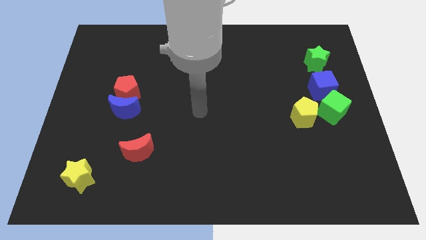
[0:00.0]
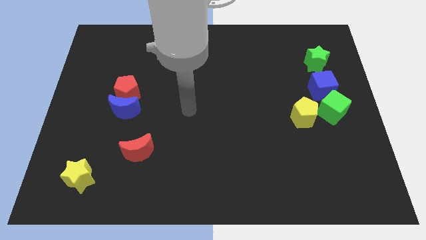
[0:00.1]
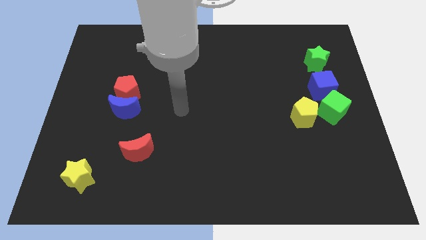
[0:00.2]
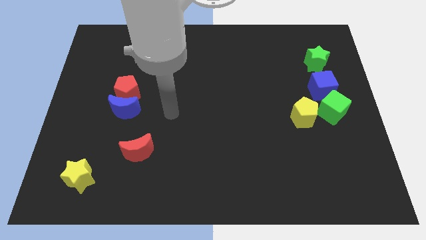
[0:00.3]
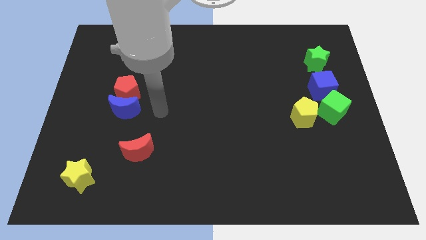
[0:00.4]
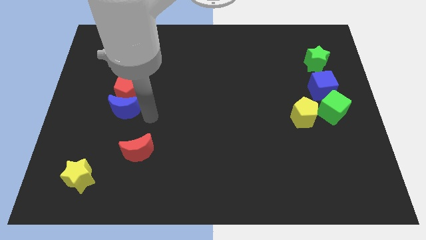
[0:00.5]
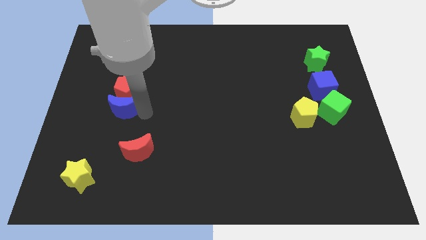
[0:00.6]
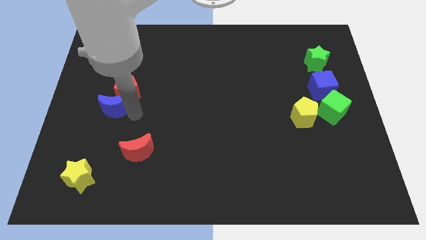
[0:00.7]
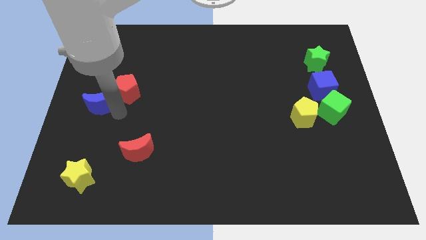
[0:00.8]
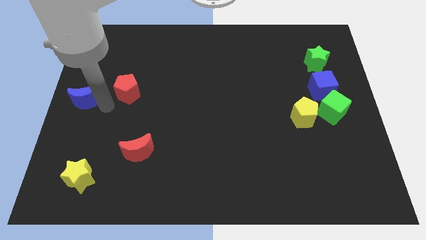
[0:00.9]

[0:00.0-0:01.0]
separate the red pentagon from the blue moon

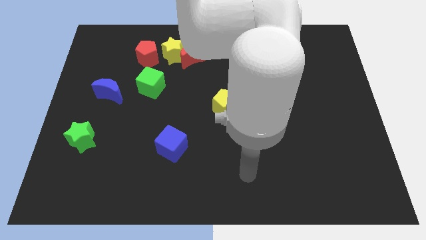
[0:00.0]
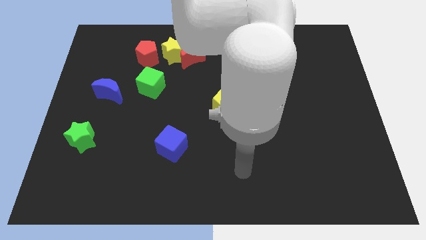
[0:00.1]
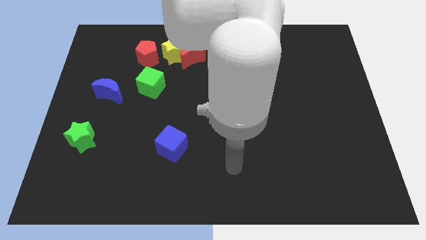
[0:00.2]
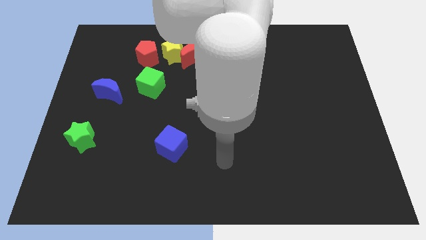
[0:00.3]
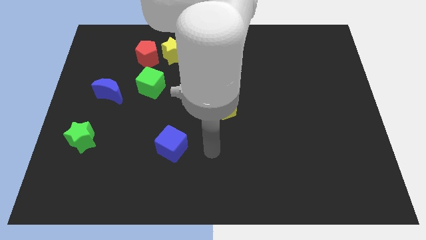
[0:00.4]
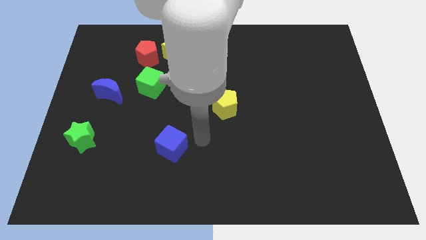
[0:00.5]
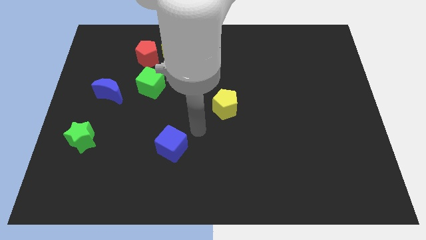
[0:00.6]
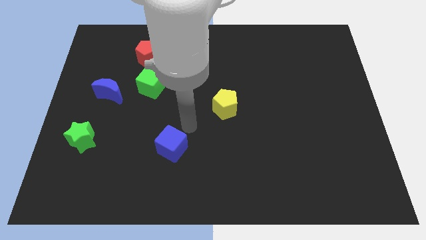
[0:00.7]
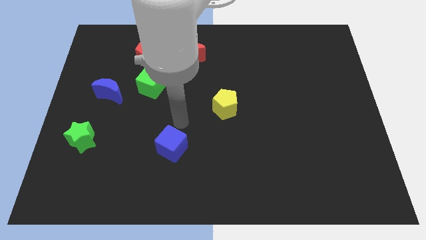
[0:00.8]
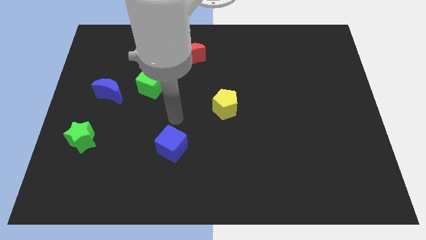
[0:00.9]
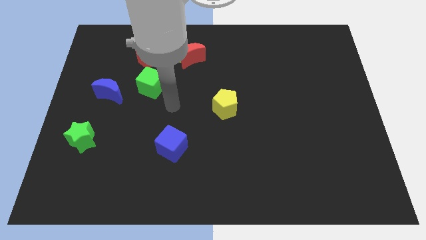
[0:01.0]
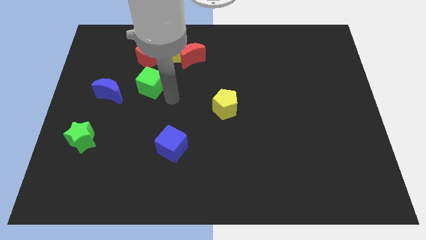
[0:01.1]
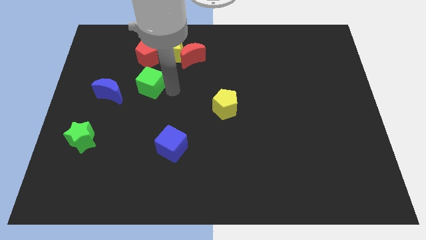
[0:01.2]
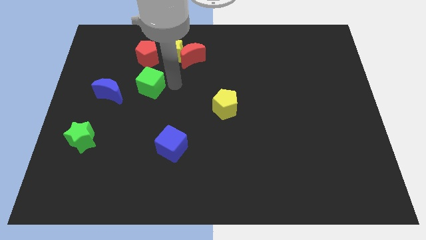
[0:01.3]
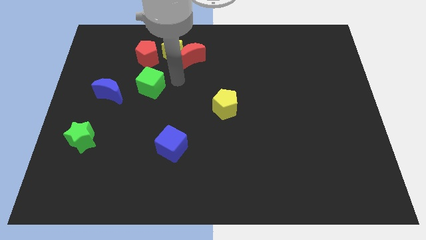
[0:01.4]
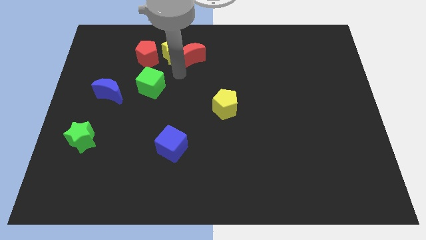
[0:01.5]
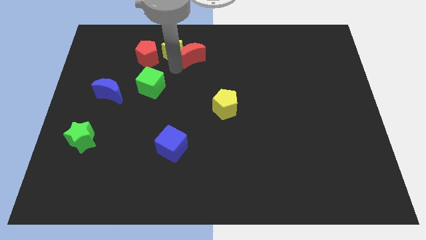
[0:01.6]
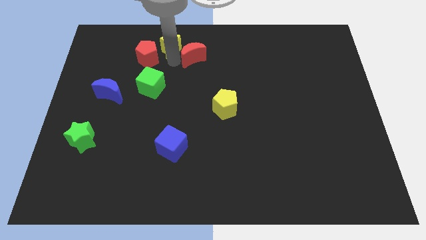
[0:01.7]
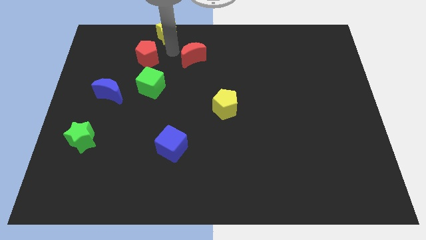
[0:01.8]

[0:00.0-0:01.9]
separate the red moon from the yellow star

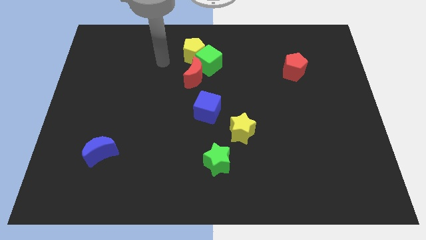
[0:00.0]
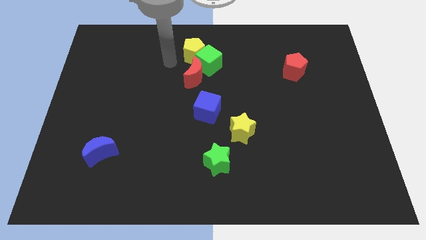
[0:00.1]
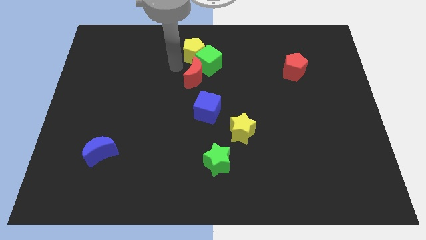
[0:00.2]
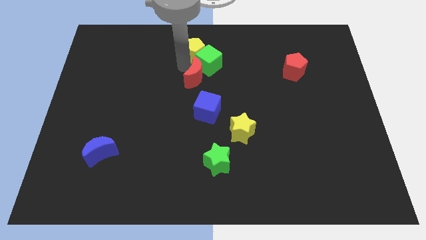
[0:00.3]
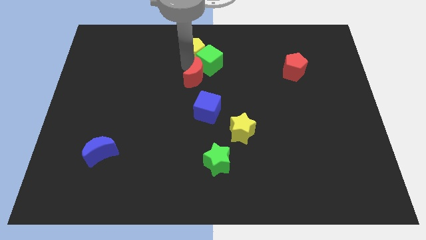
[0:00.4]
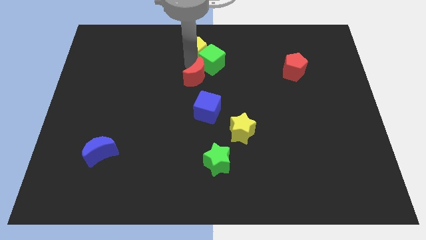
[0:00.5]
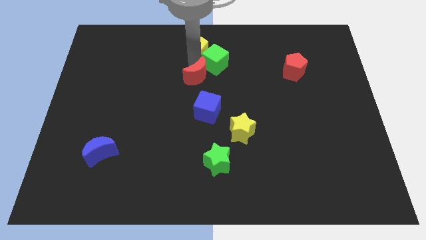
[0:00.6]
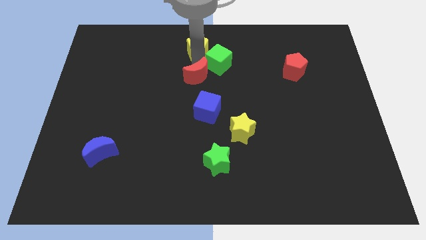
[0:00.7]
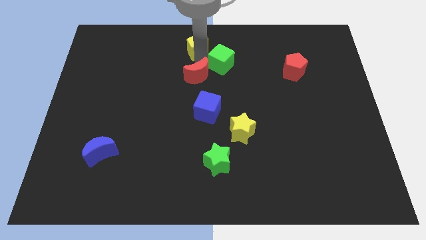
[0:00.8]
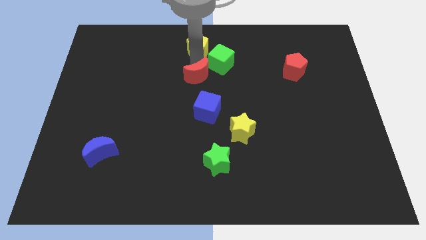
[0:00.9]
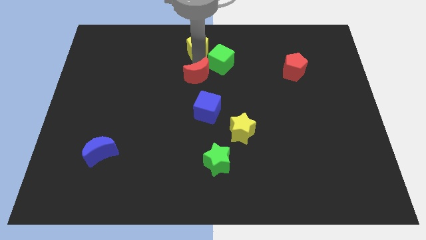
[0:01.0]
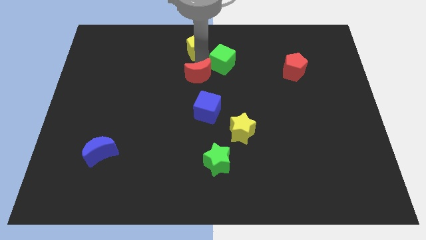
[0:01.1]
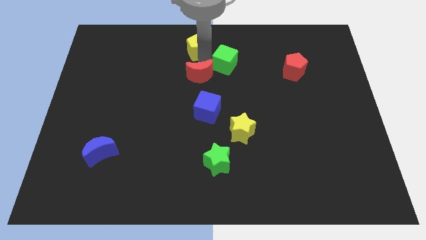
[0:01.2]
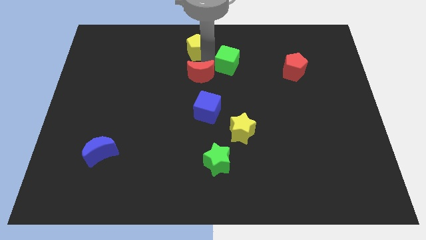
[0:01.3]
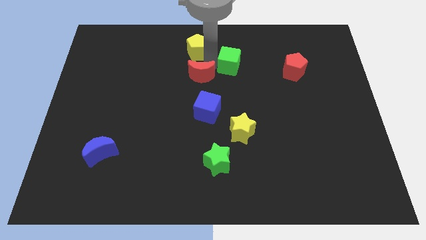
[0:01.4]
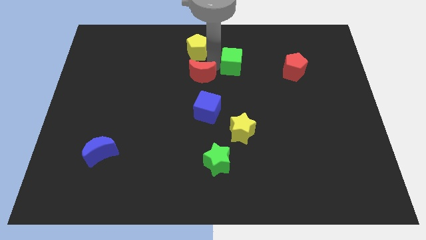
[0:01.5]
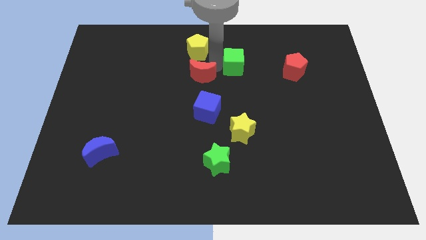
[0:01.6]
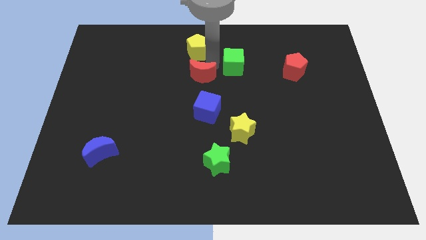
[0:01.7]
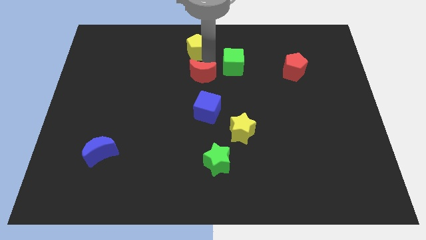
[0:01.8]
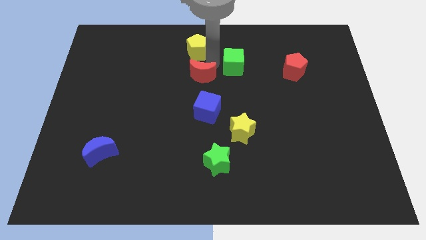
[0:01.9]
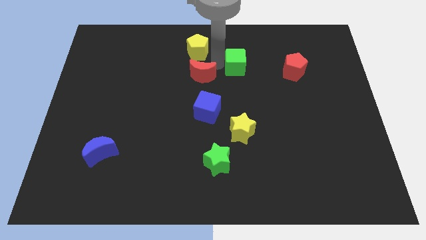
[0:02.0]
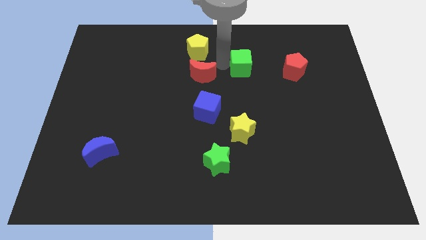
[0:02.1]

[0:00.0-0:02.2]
separate the green cube from the yellow pentagon and red moon

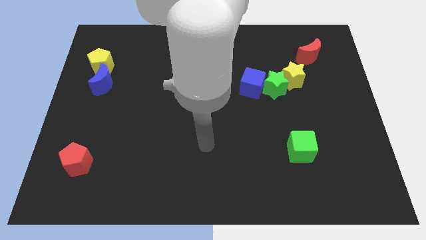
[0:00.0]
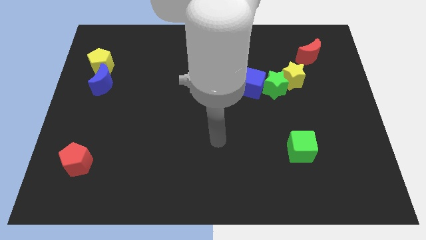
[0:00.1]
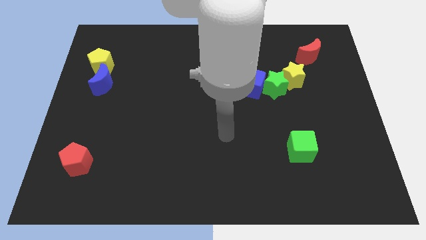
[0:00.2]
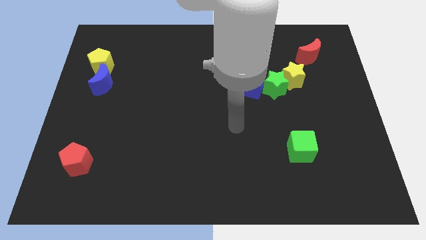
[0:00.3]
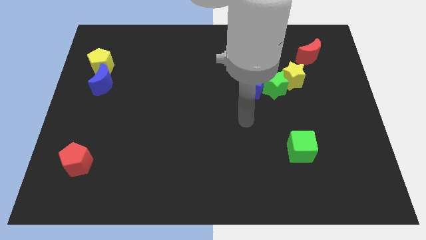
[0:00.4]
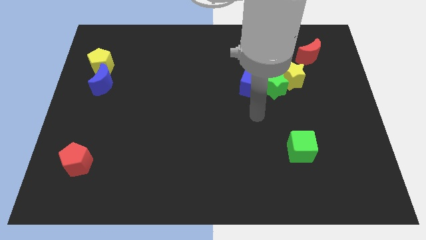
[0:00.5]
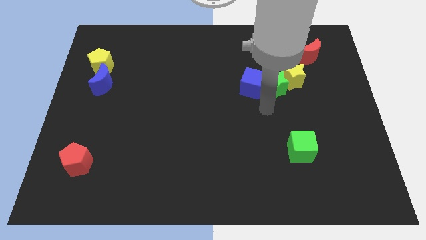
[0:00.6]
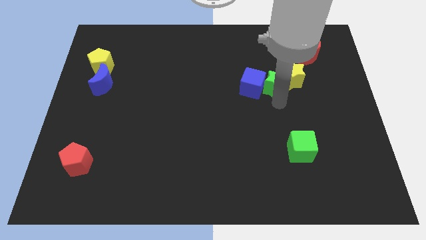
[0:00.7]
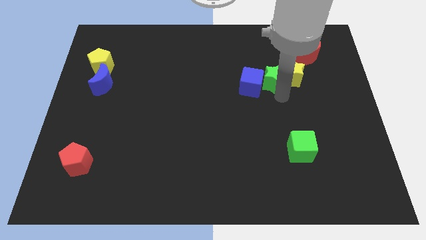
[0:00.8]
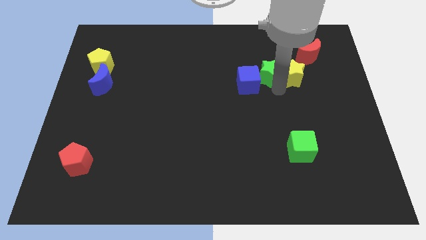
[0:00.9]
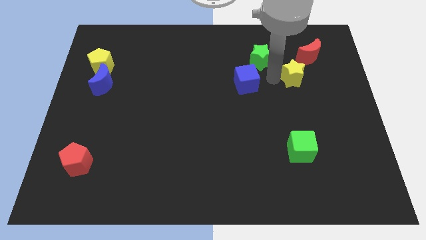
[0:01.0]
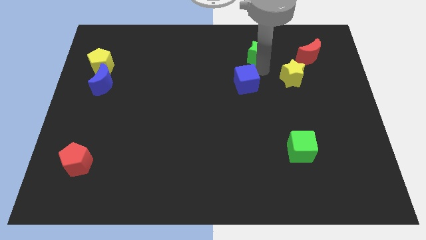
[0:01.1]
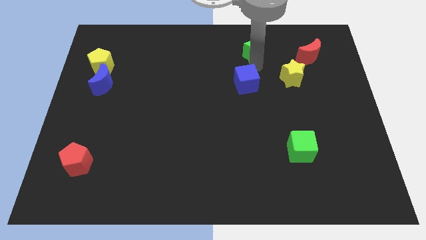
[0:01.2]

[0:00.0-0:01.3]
move the blue cube away from the green star

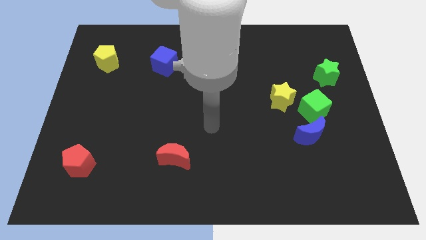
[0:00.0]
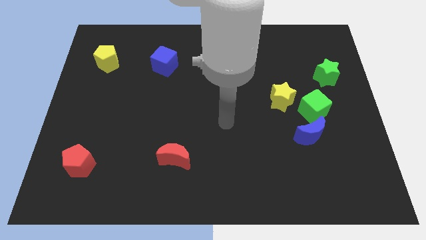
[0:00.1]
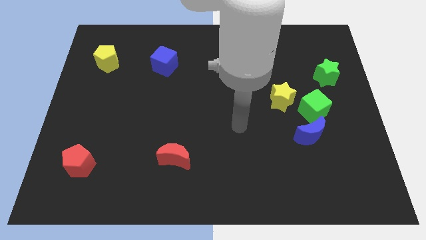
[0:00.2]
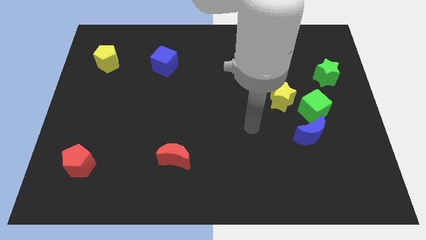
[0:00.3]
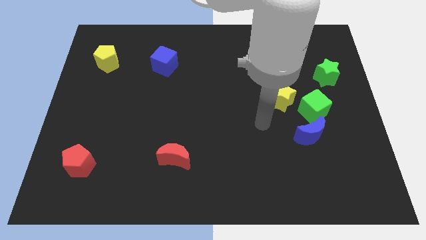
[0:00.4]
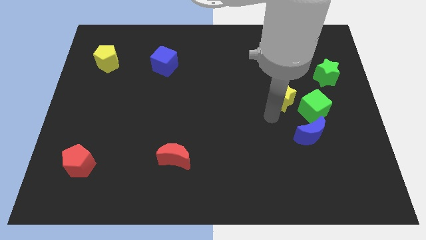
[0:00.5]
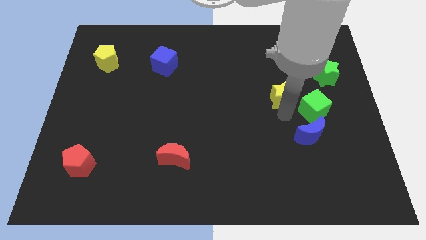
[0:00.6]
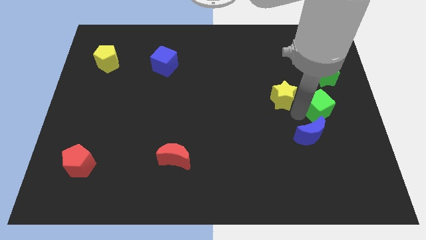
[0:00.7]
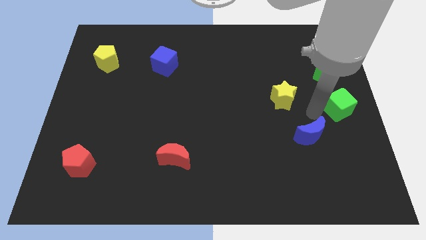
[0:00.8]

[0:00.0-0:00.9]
pull the blue moon apart from the green cube

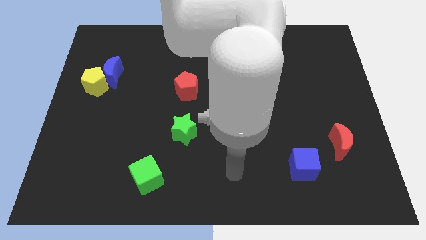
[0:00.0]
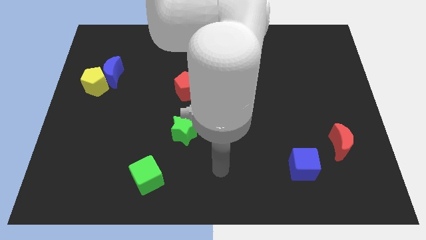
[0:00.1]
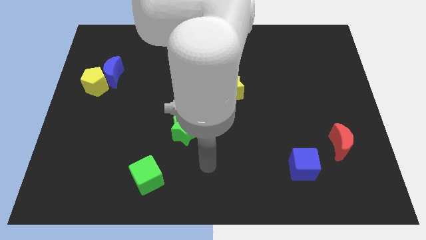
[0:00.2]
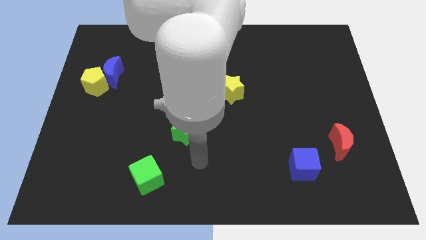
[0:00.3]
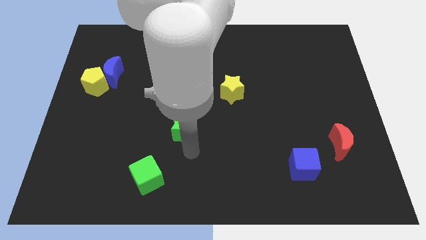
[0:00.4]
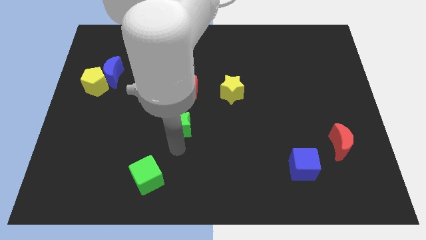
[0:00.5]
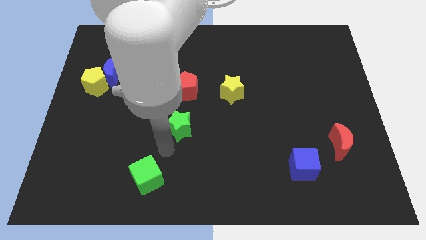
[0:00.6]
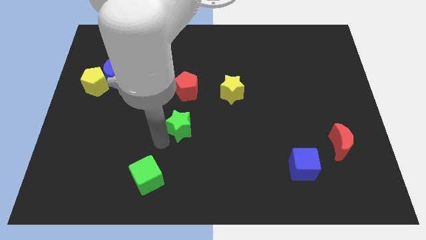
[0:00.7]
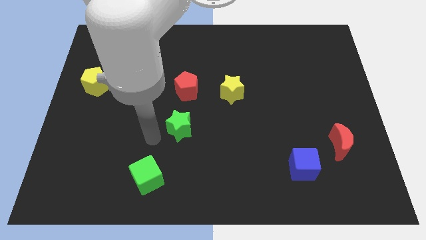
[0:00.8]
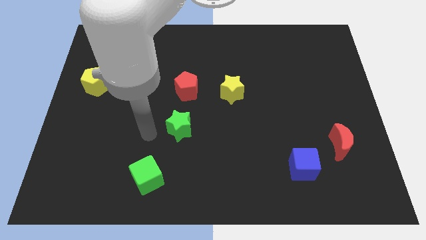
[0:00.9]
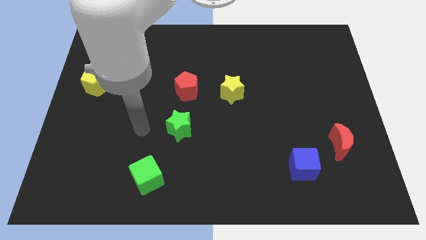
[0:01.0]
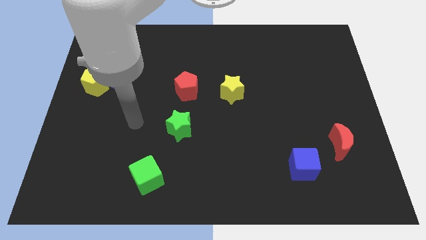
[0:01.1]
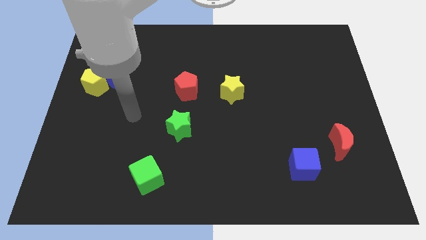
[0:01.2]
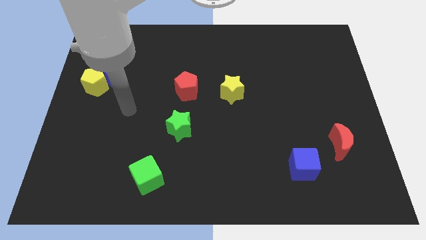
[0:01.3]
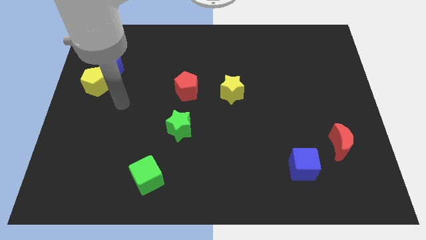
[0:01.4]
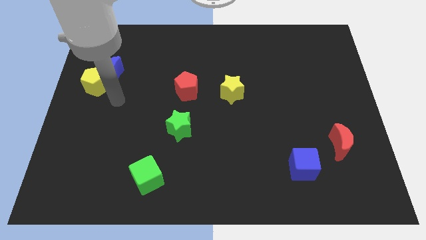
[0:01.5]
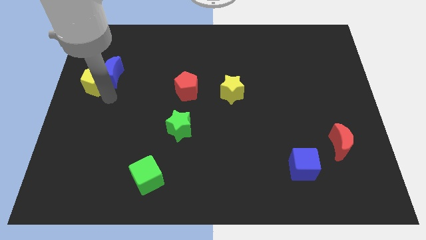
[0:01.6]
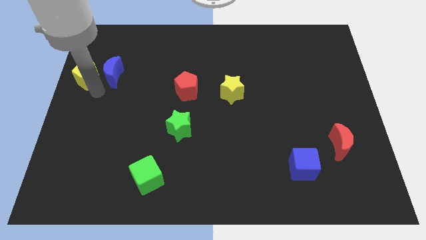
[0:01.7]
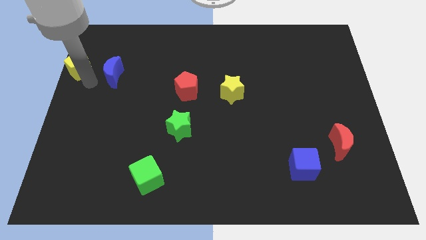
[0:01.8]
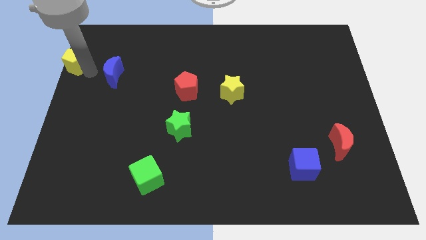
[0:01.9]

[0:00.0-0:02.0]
move the blue moon away from the yellow pentagon
